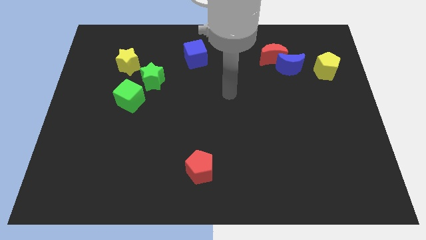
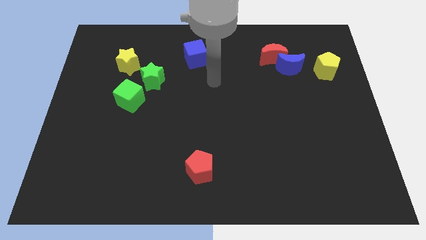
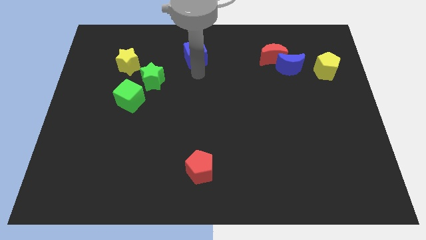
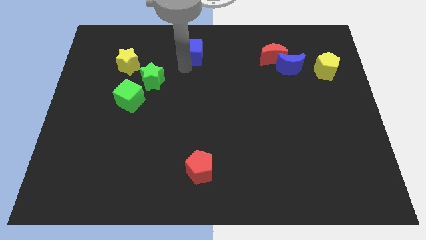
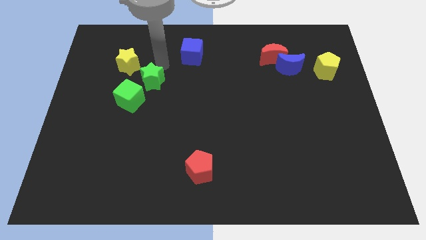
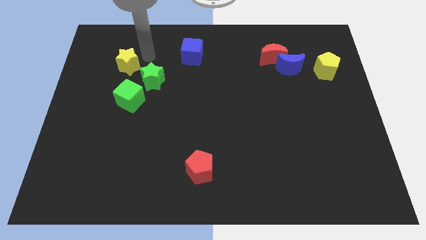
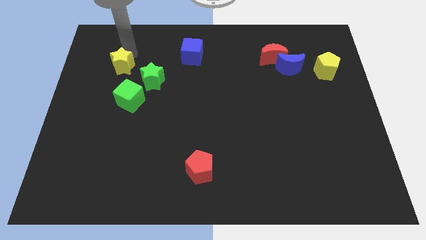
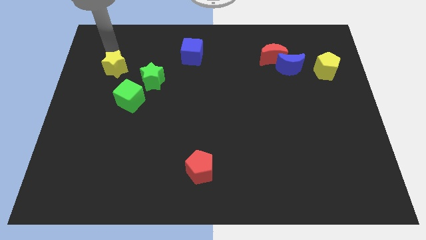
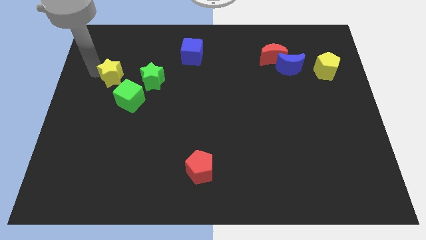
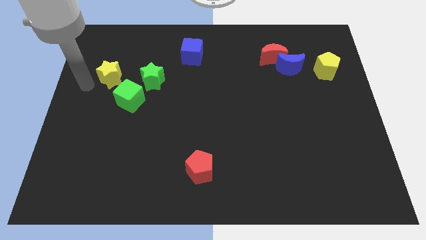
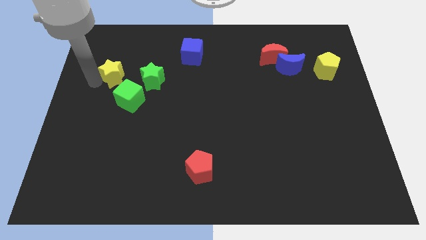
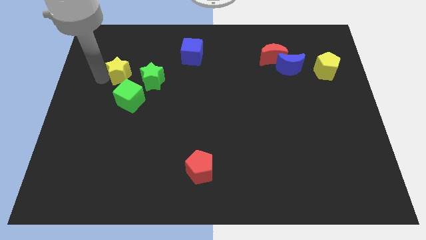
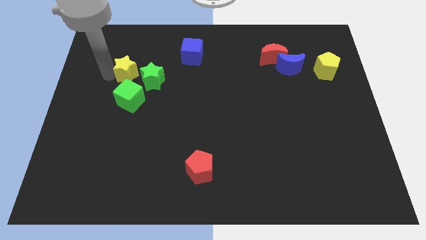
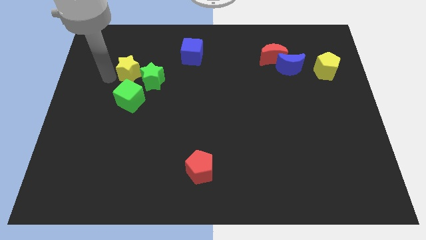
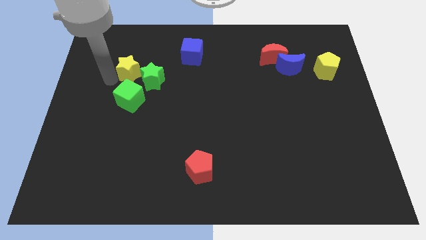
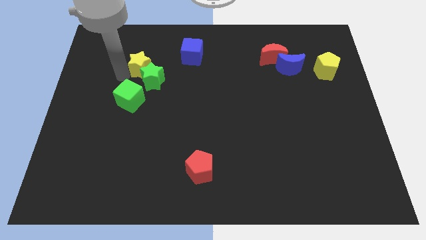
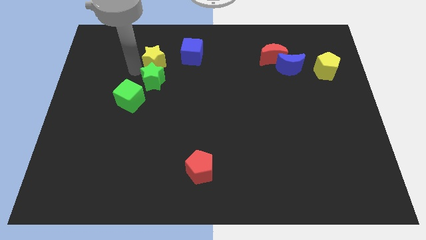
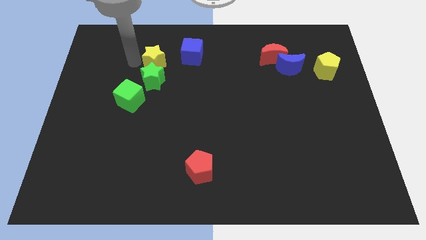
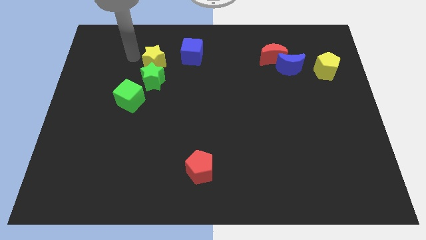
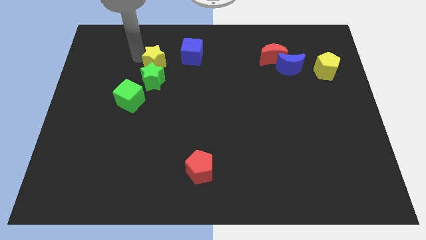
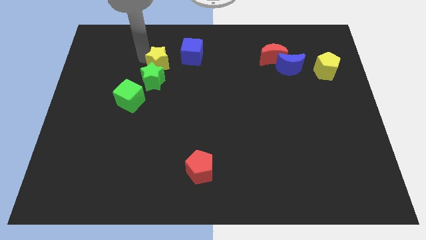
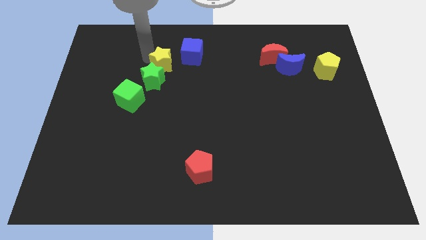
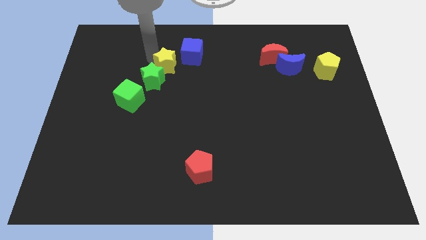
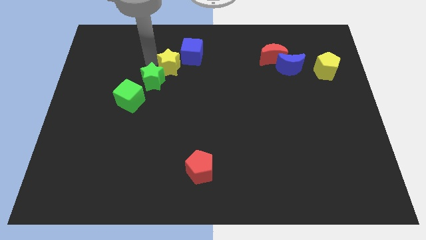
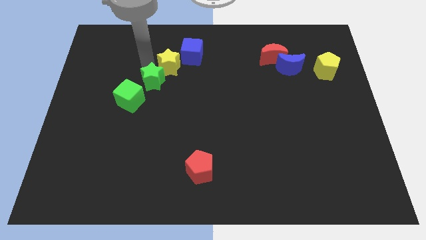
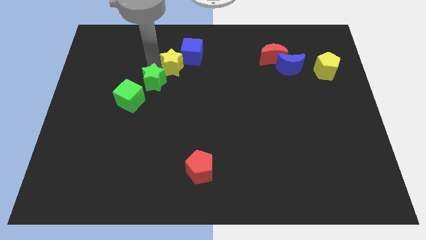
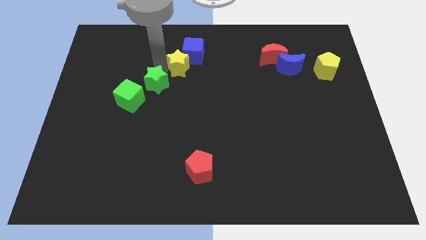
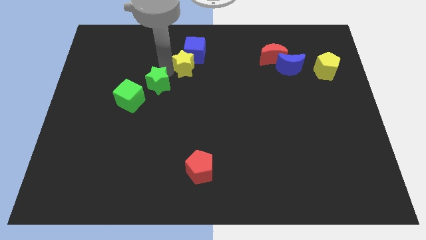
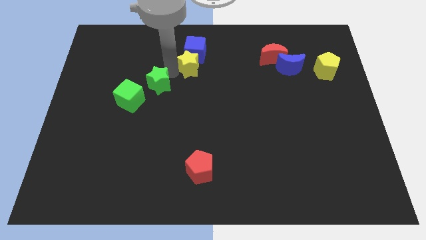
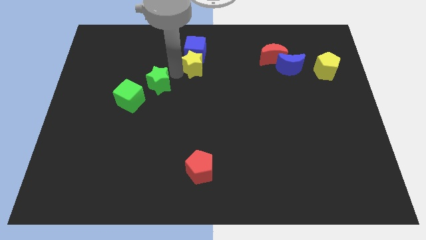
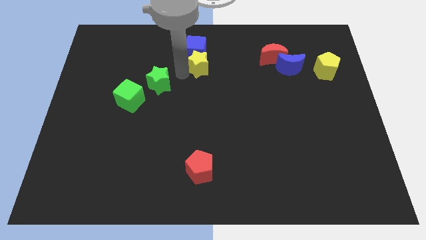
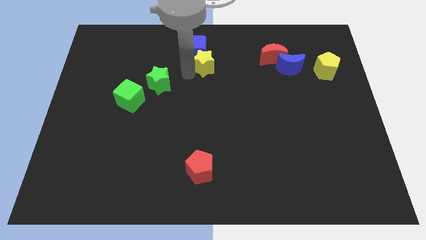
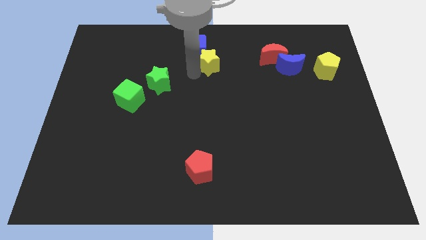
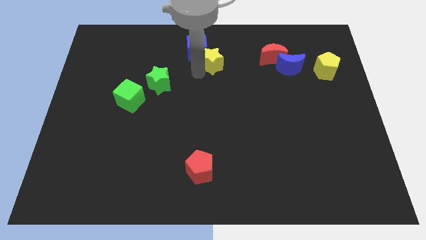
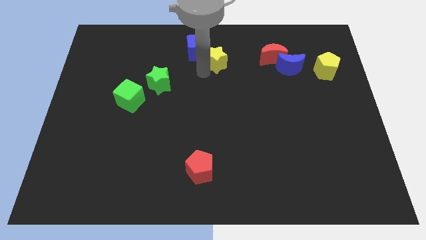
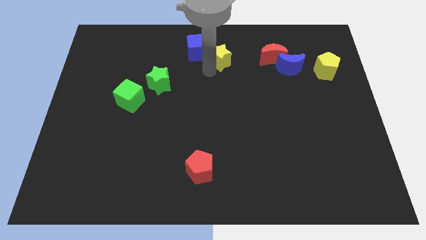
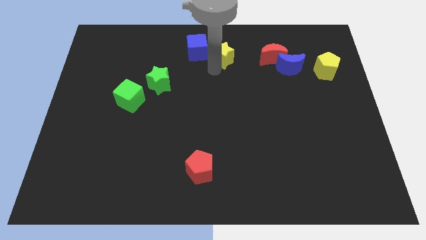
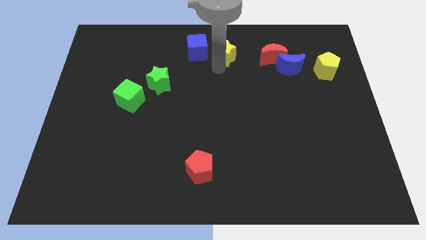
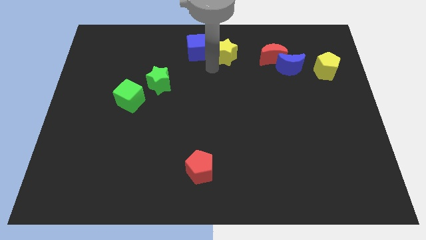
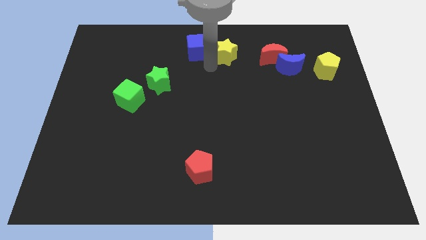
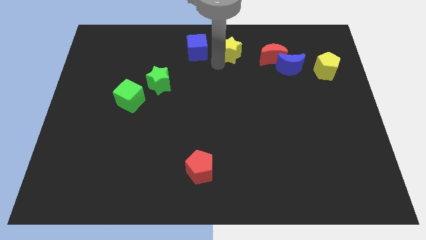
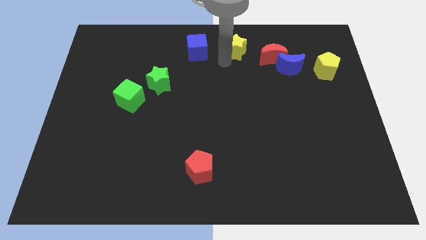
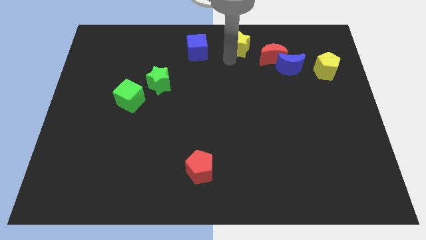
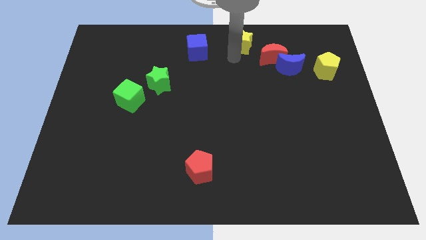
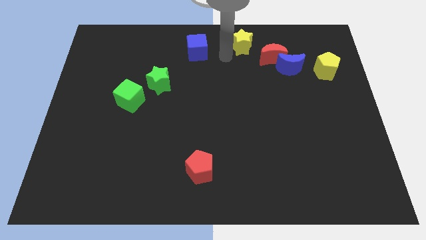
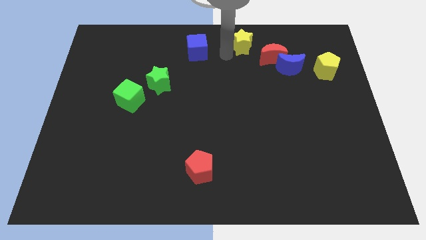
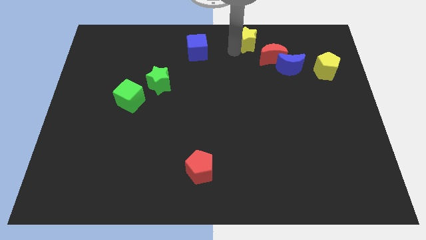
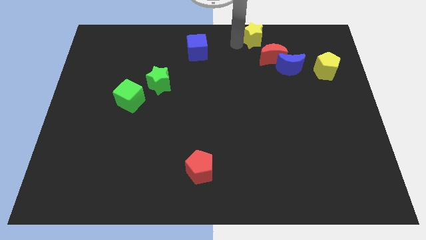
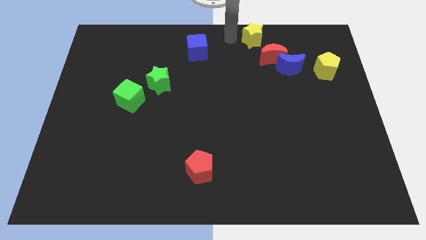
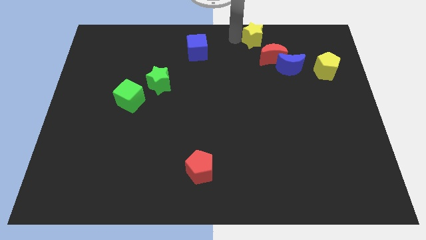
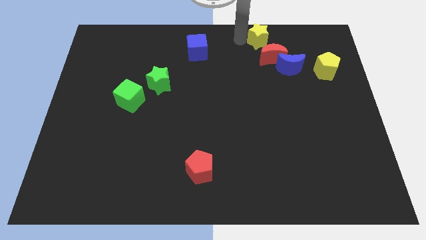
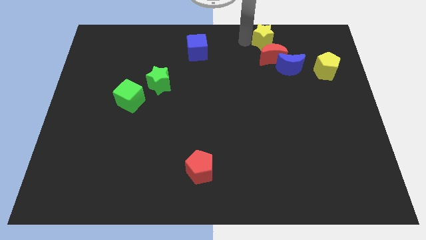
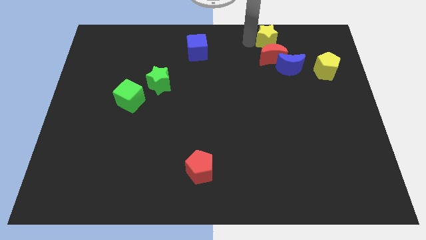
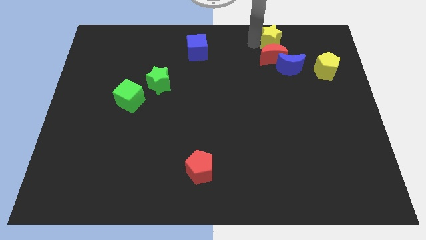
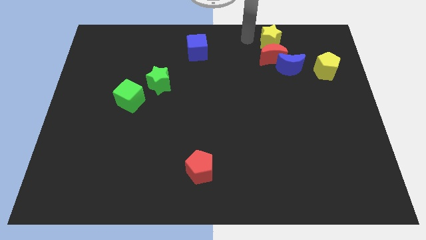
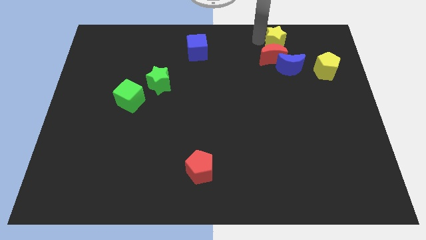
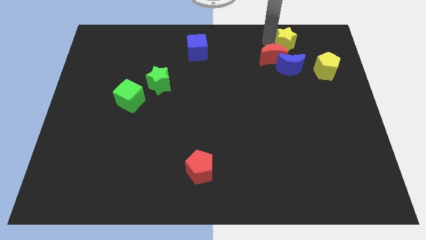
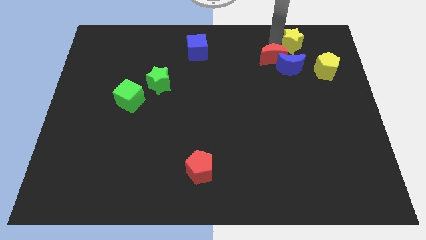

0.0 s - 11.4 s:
put the yellow star to the top left side of the yellow pentagon

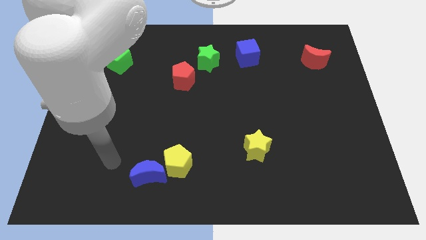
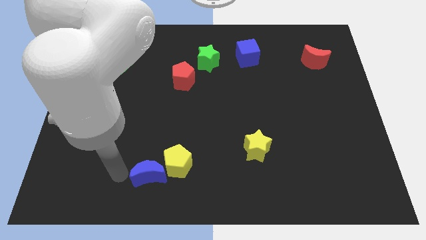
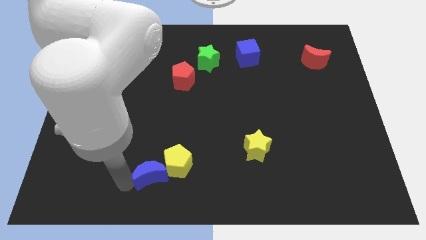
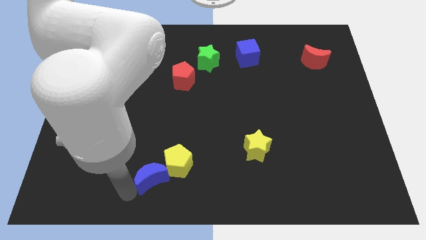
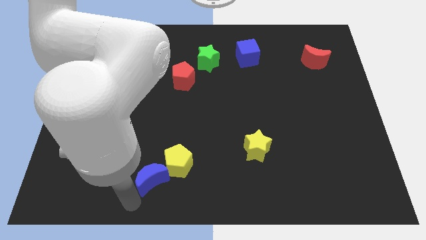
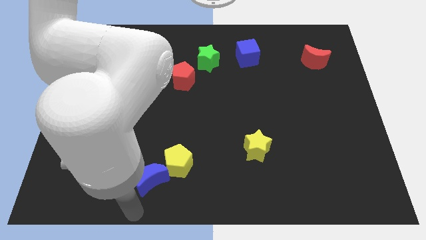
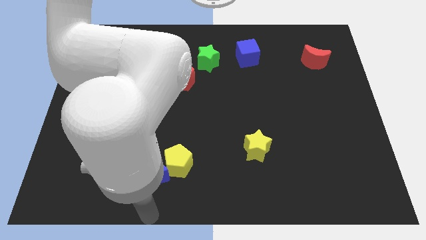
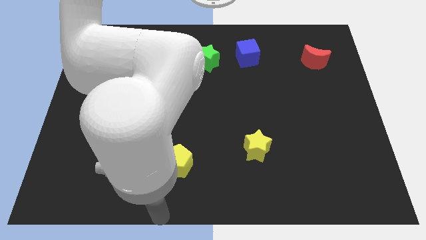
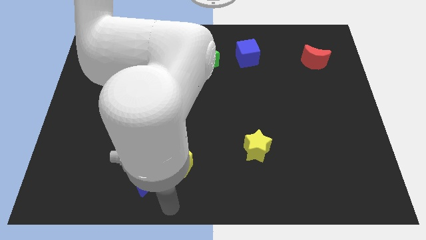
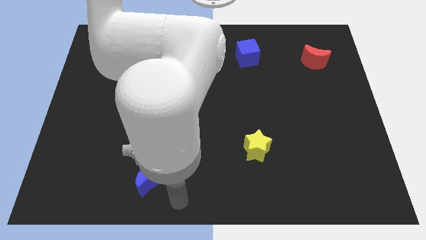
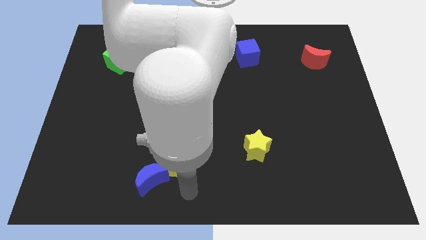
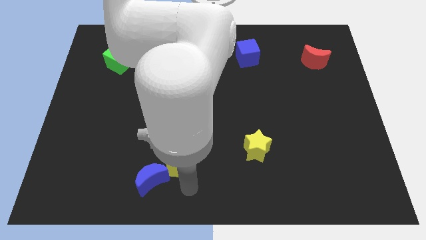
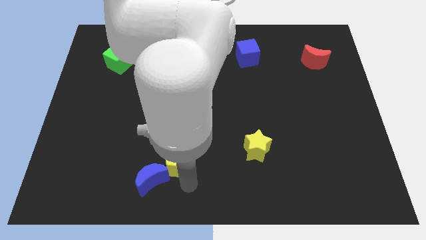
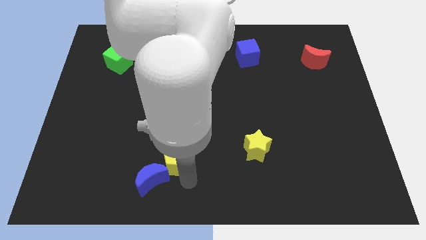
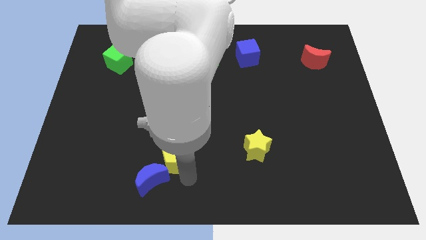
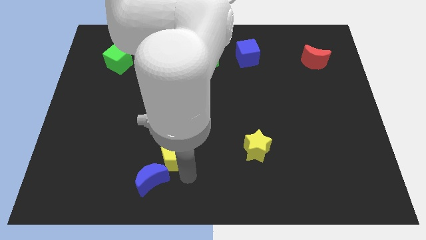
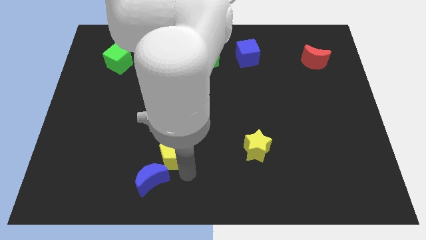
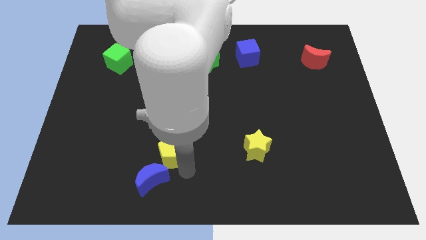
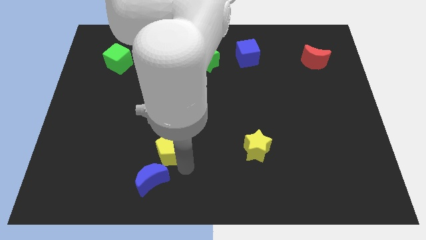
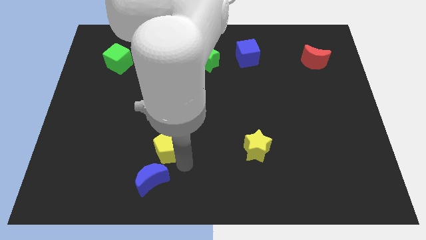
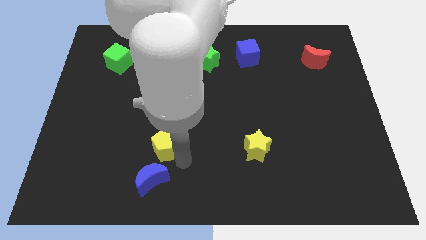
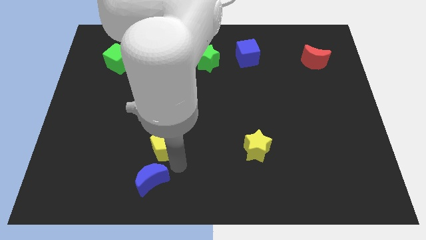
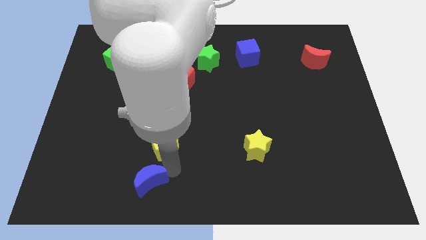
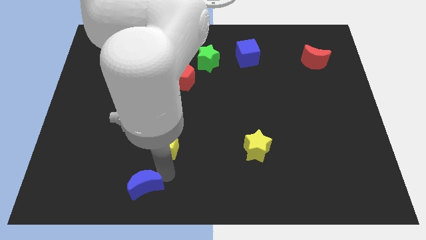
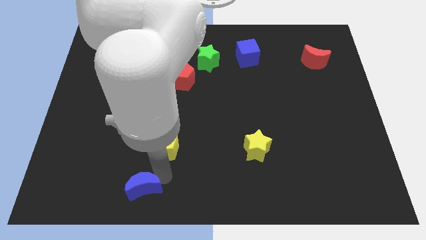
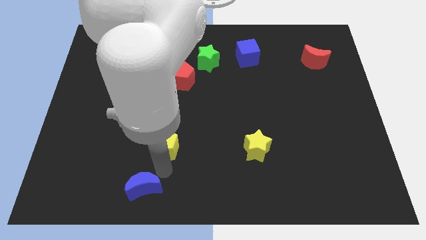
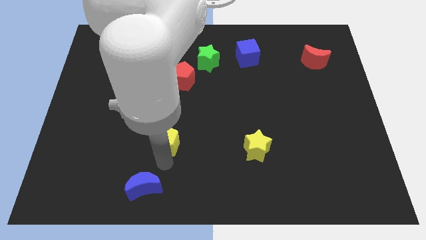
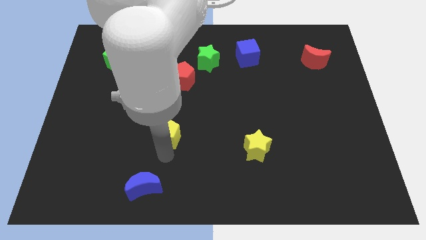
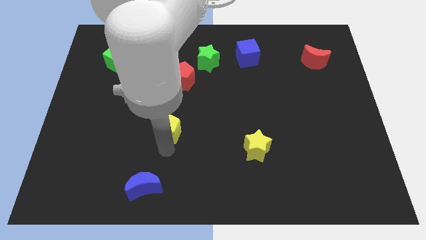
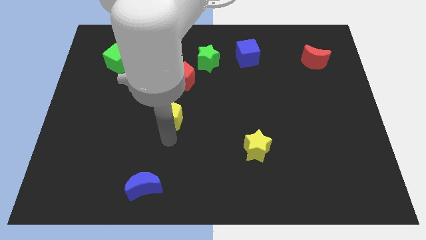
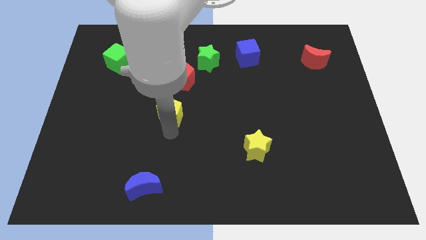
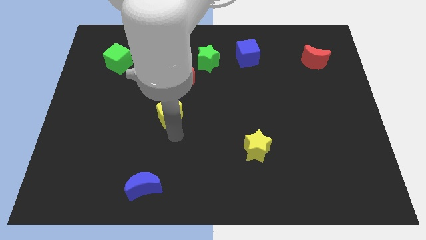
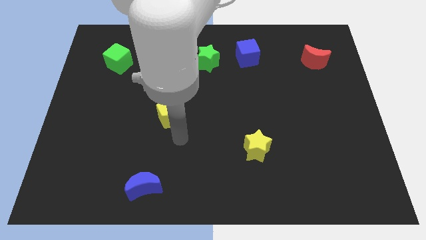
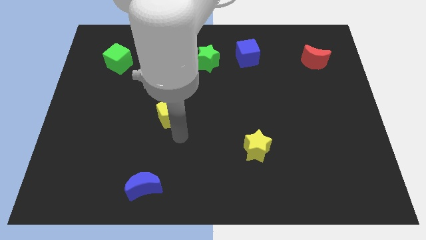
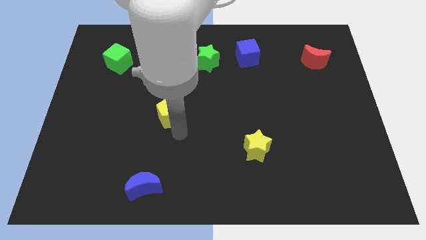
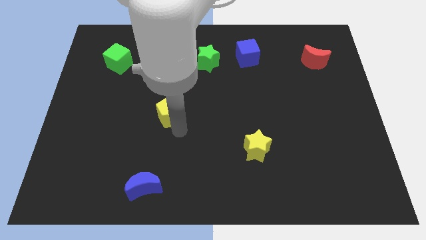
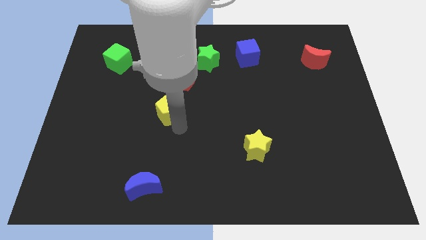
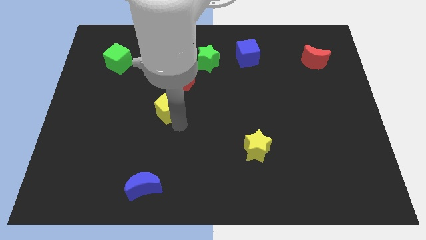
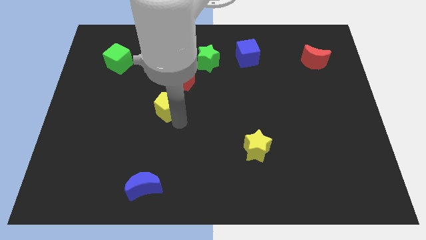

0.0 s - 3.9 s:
move the yellow pentagon to the bottom left of the red pentagon
